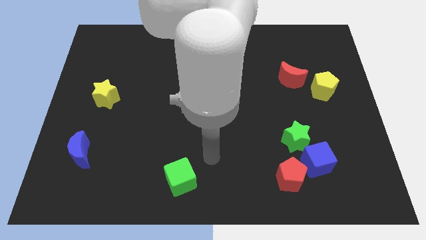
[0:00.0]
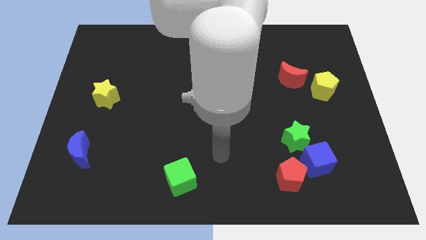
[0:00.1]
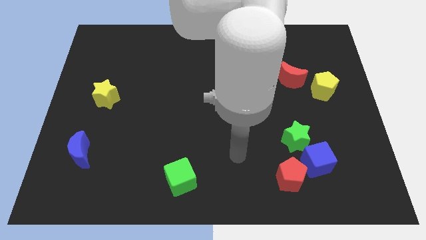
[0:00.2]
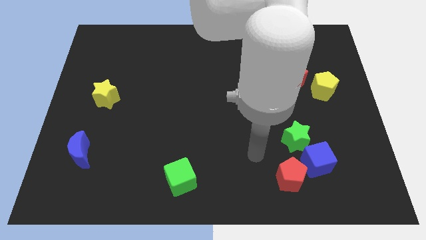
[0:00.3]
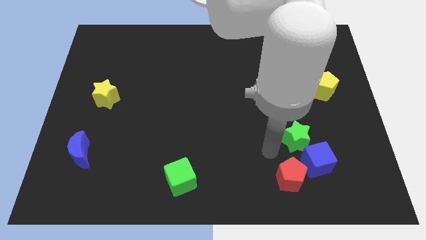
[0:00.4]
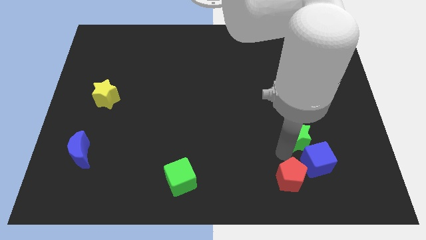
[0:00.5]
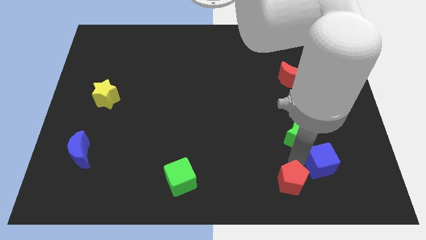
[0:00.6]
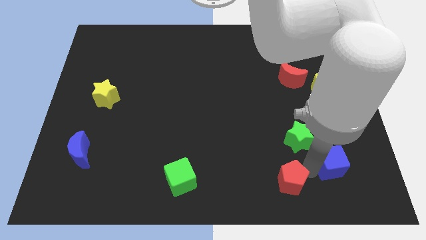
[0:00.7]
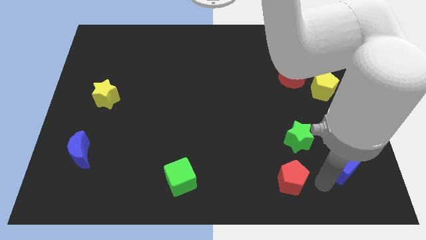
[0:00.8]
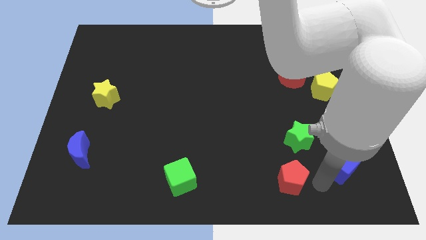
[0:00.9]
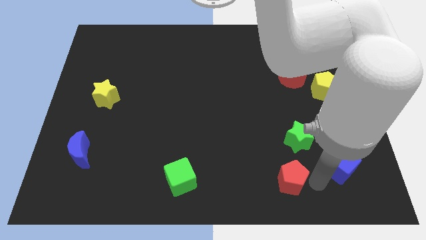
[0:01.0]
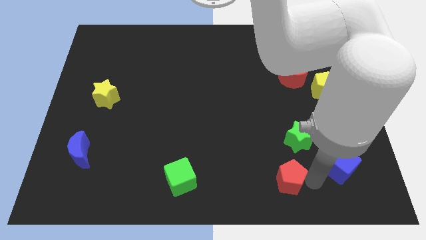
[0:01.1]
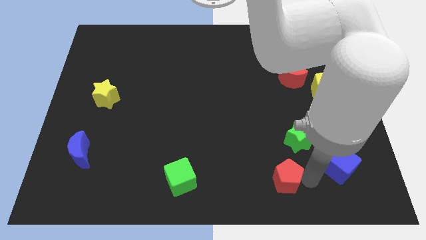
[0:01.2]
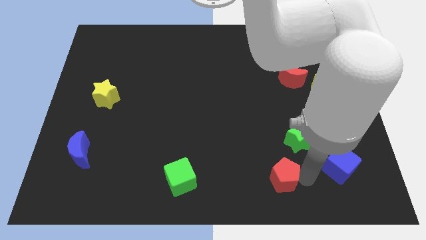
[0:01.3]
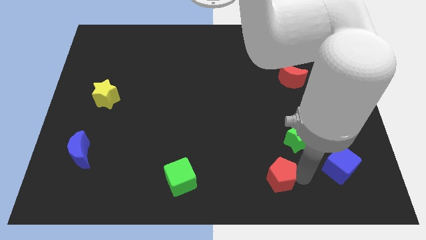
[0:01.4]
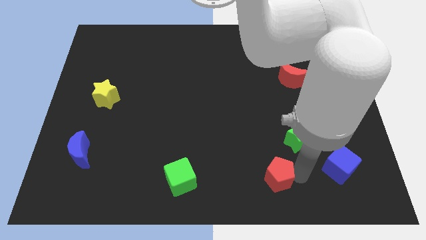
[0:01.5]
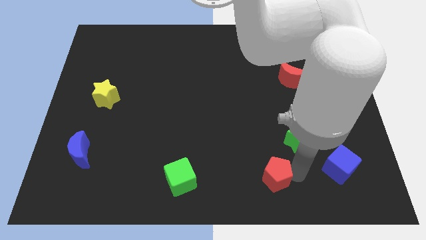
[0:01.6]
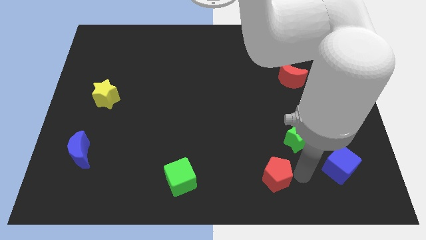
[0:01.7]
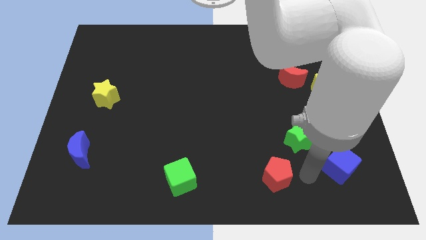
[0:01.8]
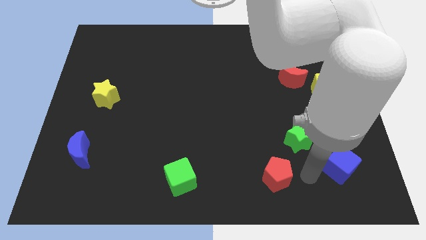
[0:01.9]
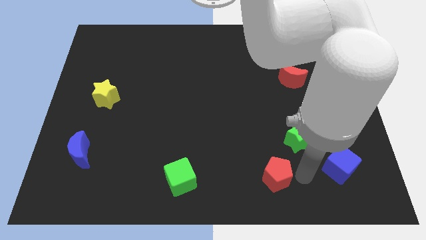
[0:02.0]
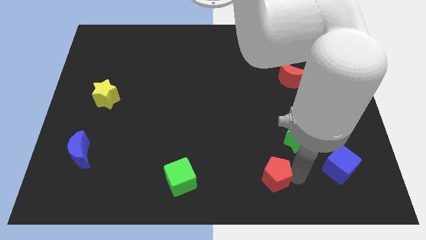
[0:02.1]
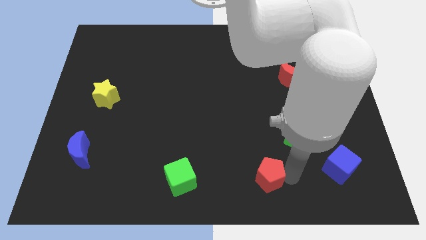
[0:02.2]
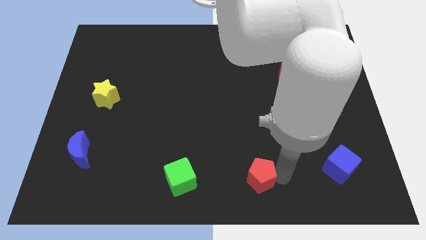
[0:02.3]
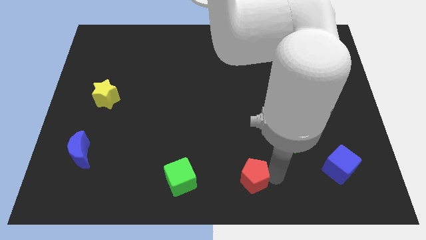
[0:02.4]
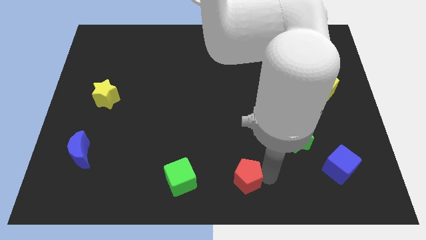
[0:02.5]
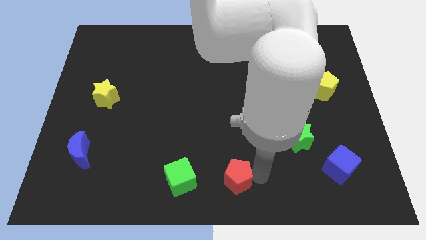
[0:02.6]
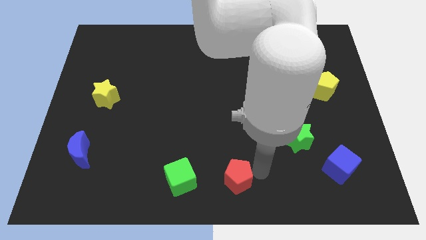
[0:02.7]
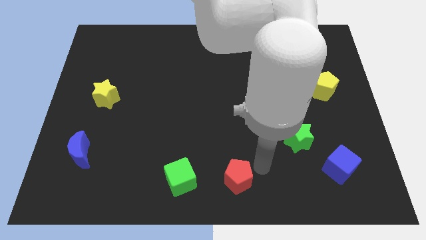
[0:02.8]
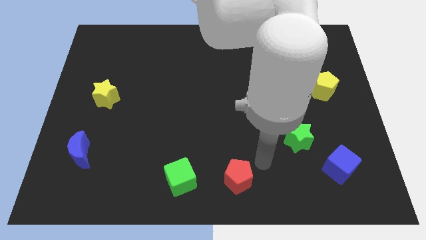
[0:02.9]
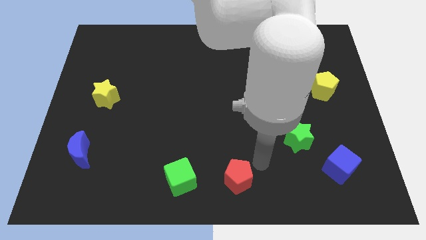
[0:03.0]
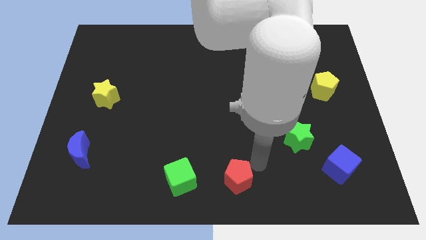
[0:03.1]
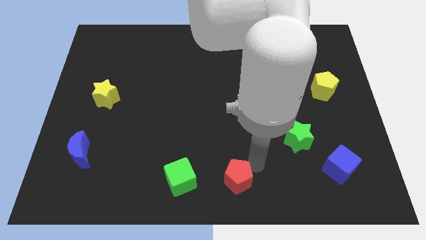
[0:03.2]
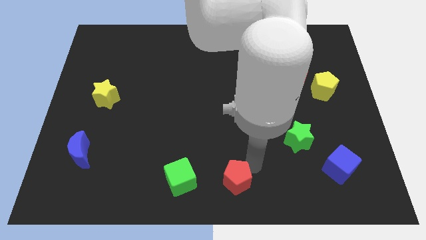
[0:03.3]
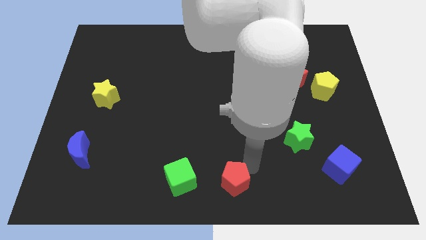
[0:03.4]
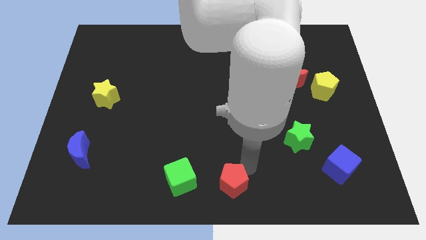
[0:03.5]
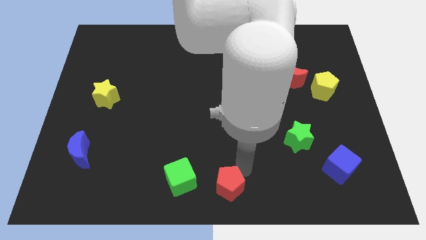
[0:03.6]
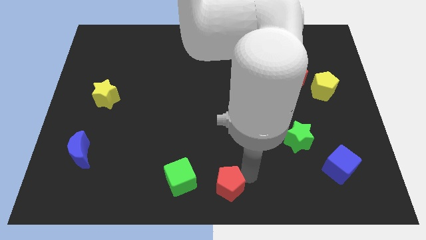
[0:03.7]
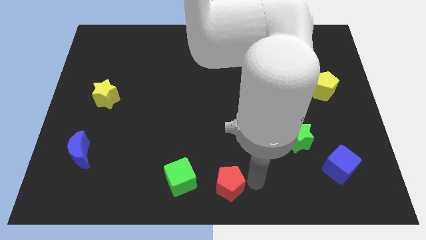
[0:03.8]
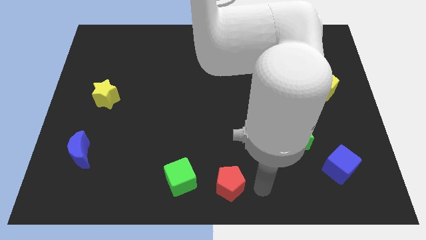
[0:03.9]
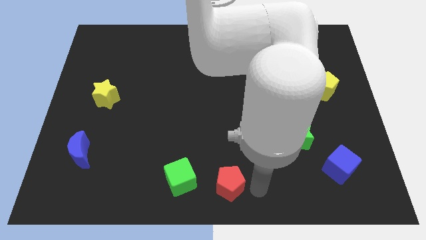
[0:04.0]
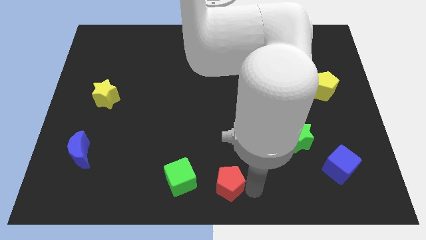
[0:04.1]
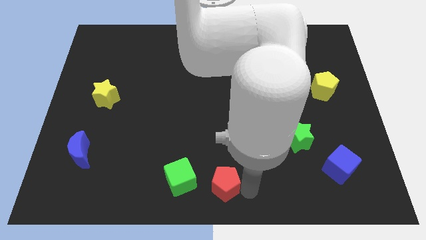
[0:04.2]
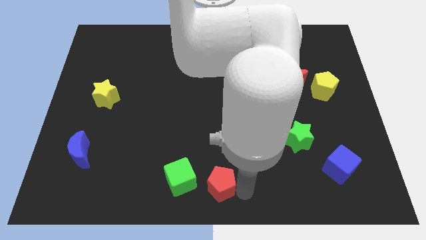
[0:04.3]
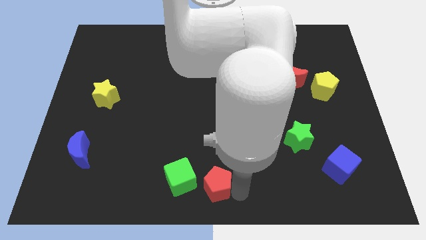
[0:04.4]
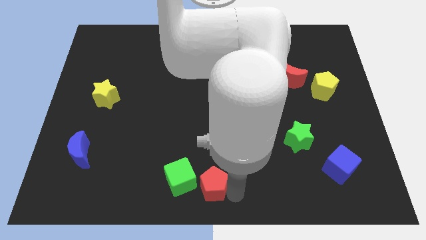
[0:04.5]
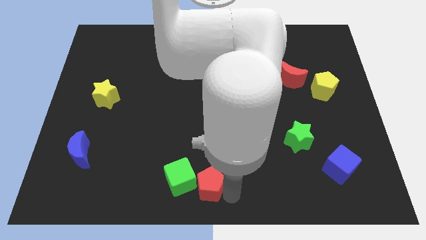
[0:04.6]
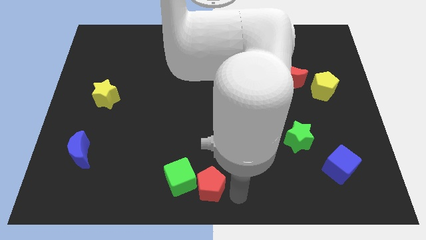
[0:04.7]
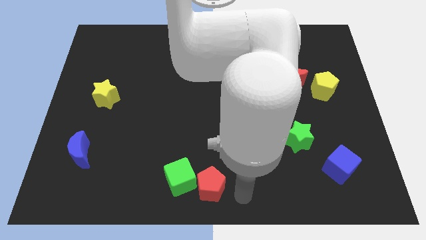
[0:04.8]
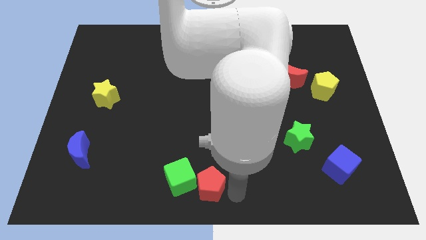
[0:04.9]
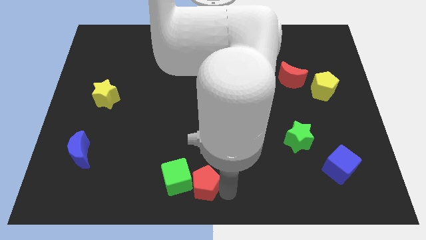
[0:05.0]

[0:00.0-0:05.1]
put the red pentagon close to the green cube

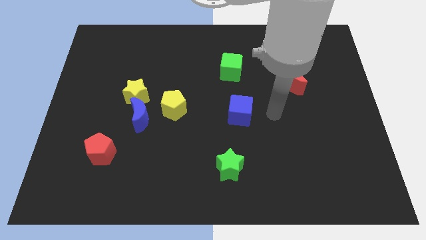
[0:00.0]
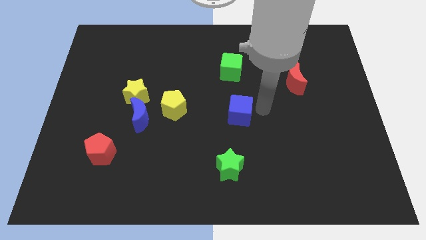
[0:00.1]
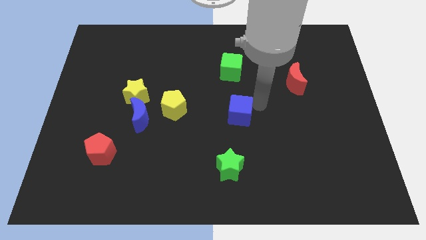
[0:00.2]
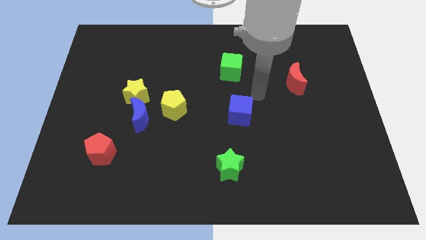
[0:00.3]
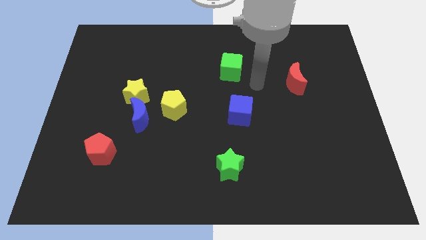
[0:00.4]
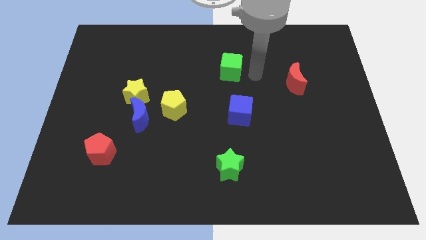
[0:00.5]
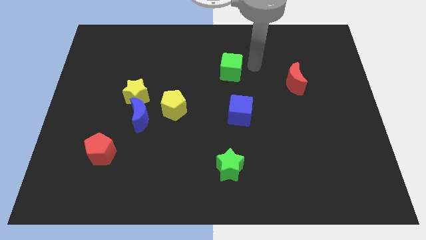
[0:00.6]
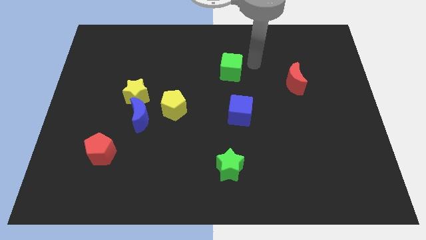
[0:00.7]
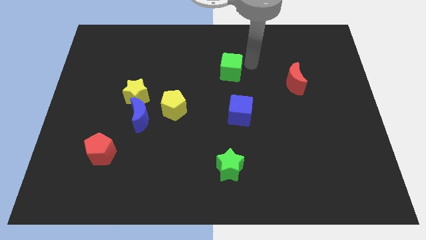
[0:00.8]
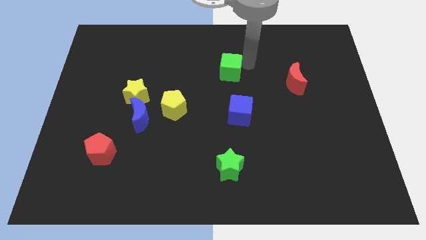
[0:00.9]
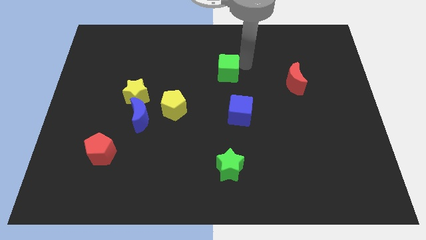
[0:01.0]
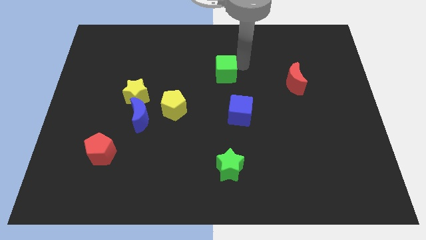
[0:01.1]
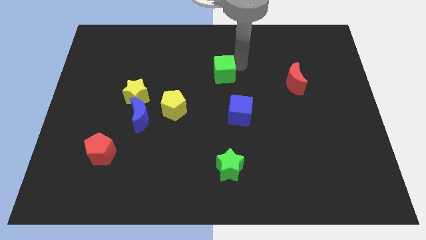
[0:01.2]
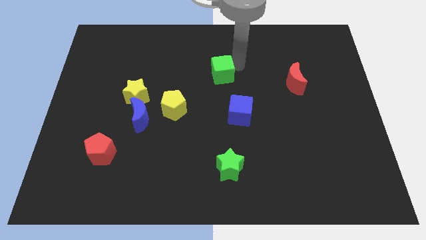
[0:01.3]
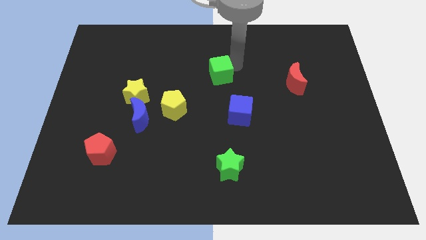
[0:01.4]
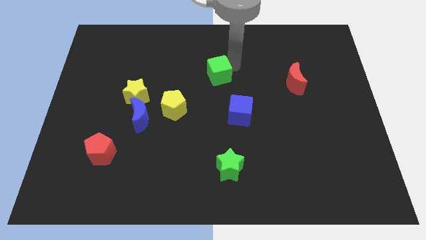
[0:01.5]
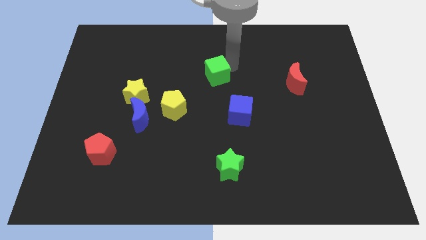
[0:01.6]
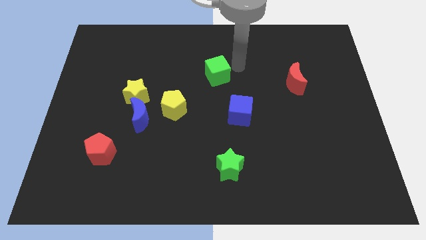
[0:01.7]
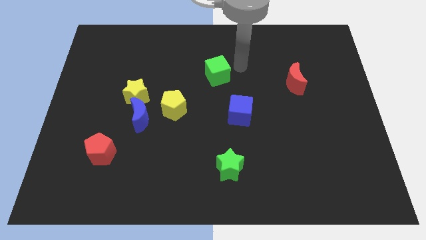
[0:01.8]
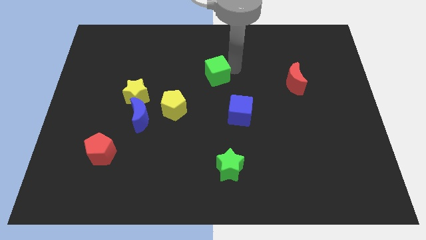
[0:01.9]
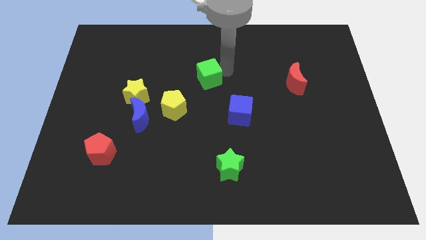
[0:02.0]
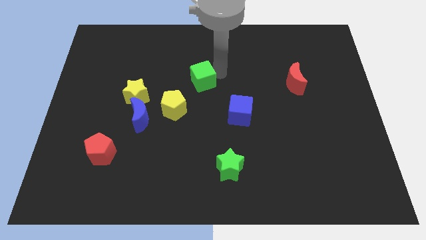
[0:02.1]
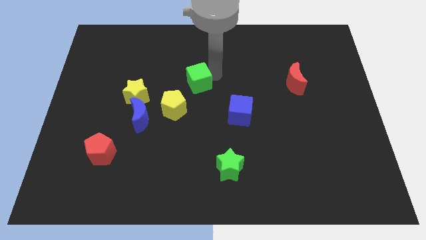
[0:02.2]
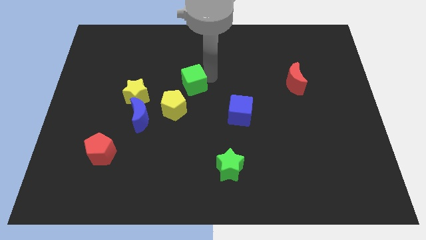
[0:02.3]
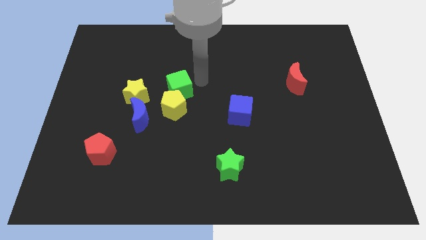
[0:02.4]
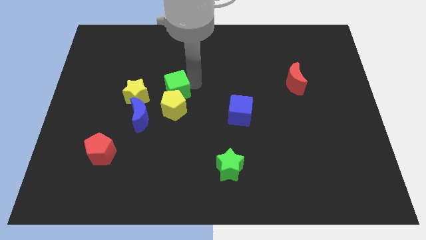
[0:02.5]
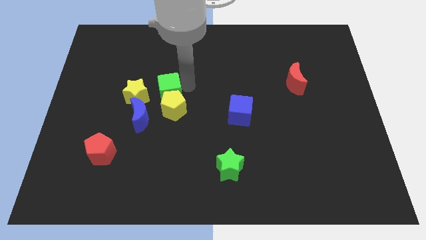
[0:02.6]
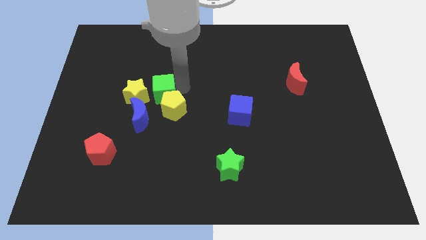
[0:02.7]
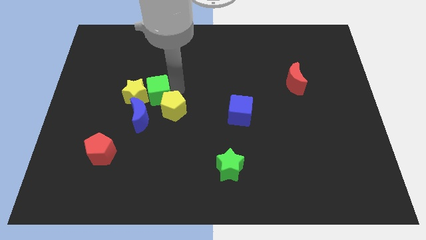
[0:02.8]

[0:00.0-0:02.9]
put the green cube next to the yellow star
